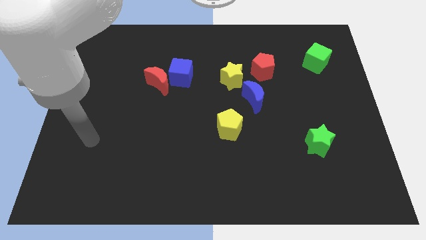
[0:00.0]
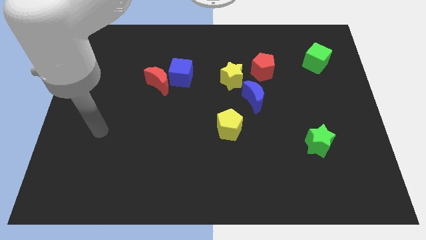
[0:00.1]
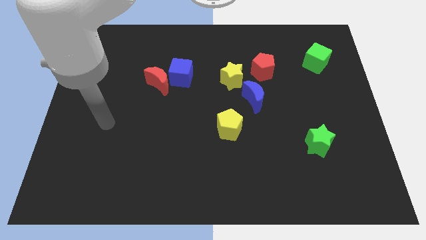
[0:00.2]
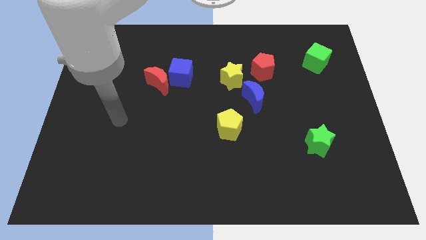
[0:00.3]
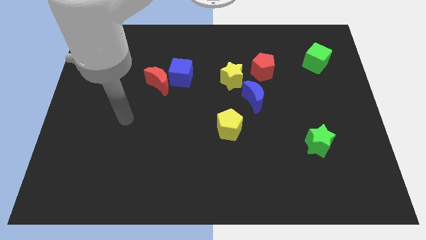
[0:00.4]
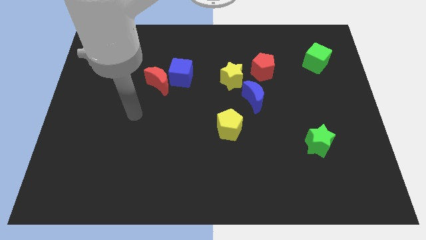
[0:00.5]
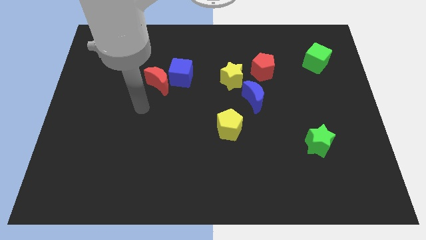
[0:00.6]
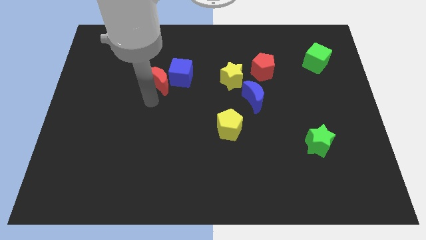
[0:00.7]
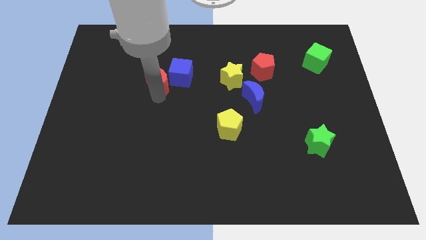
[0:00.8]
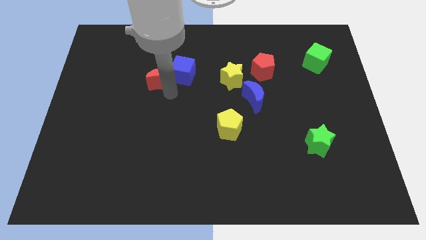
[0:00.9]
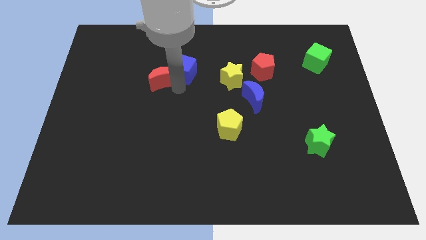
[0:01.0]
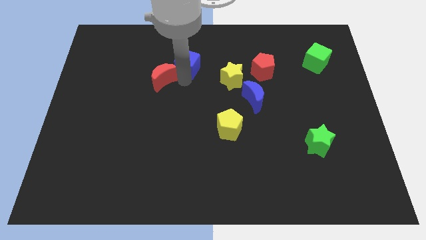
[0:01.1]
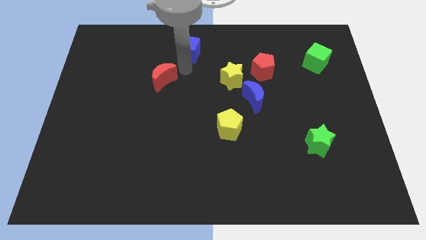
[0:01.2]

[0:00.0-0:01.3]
pull the red moon apart from the blue cube

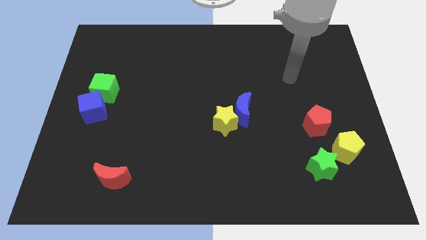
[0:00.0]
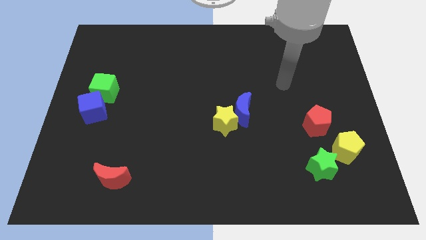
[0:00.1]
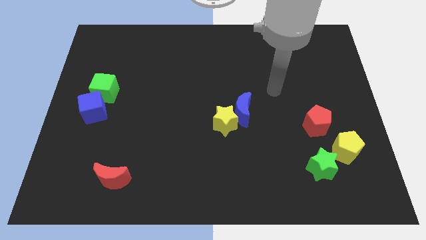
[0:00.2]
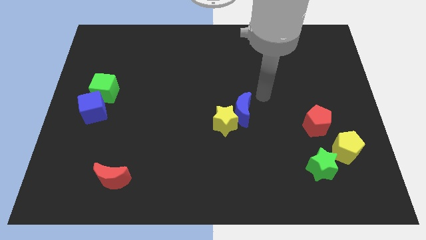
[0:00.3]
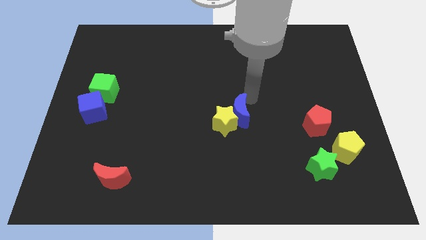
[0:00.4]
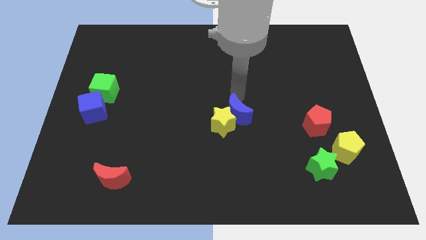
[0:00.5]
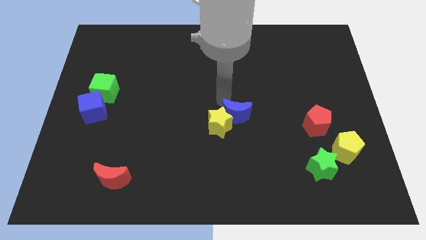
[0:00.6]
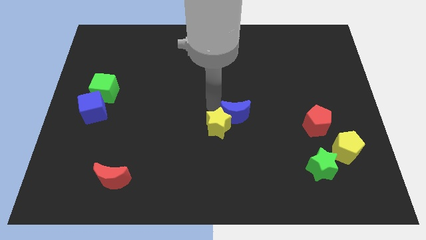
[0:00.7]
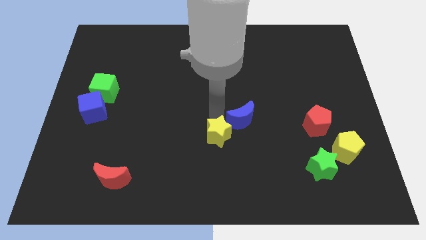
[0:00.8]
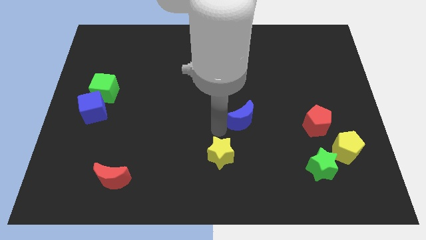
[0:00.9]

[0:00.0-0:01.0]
pull the blue moon apart from the yellow star

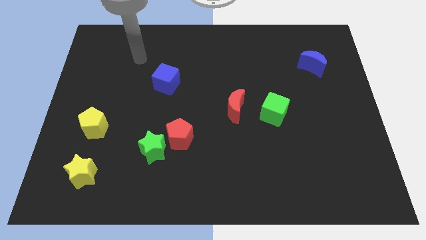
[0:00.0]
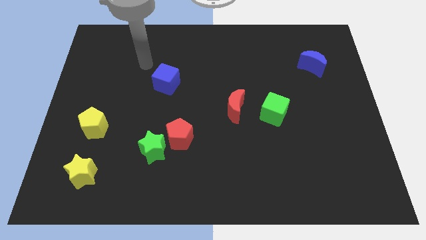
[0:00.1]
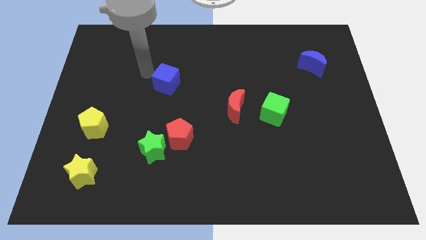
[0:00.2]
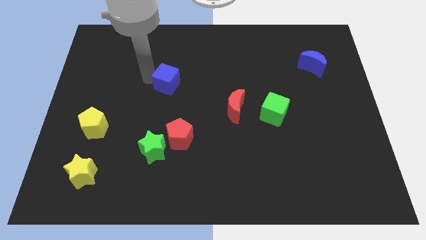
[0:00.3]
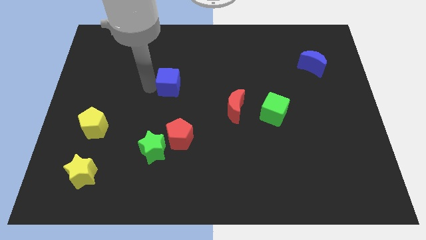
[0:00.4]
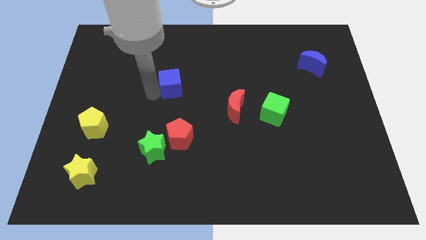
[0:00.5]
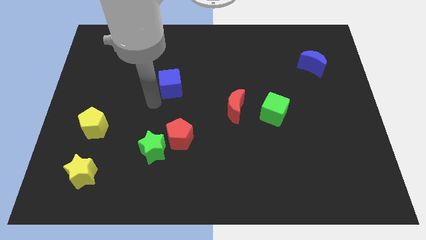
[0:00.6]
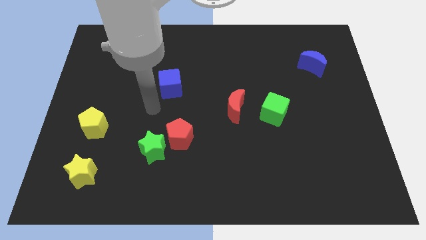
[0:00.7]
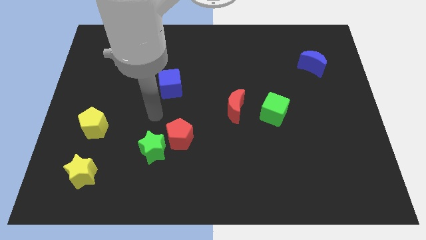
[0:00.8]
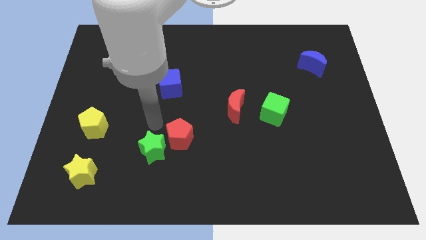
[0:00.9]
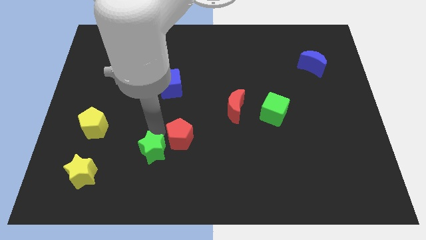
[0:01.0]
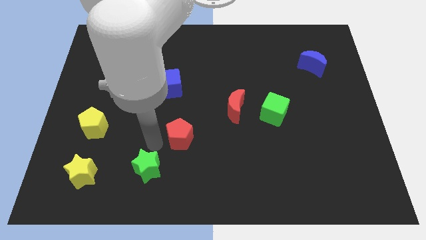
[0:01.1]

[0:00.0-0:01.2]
move the red pentagon away from the green star

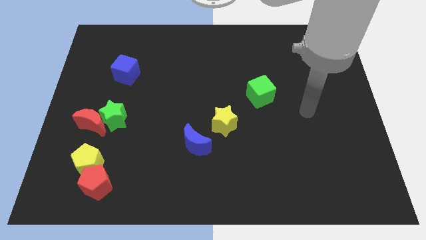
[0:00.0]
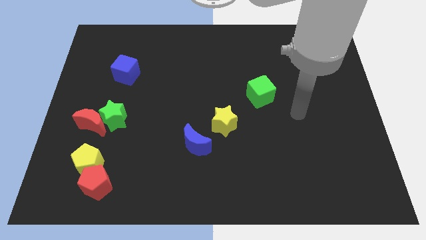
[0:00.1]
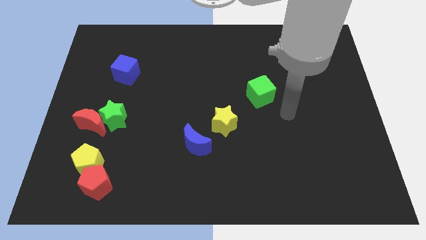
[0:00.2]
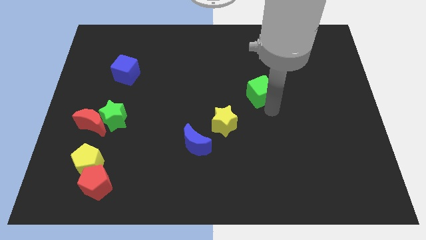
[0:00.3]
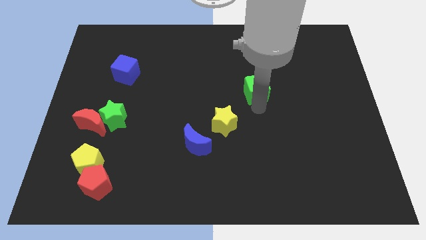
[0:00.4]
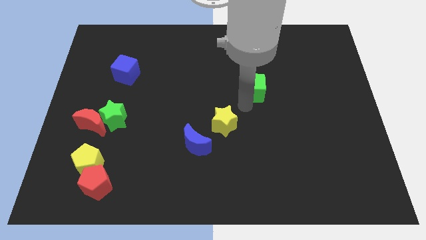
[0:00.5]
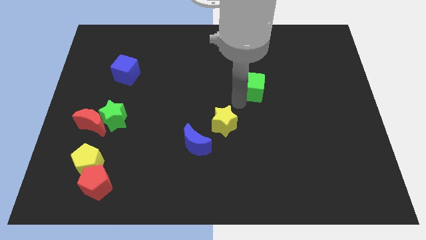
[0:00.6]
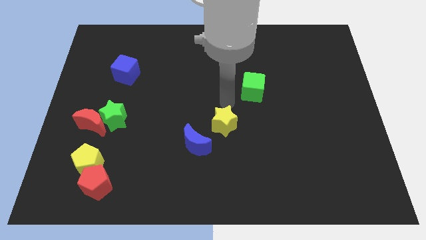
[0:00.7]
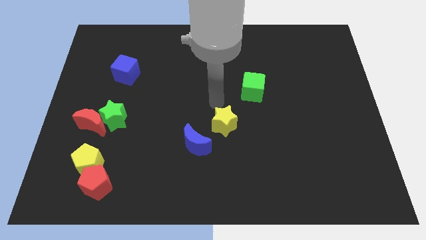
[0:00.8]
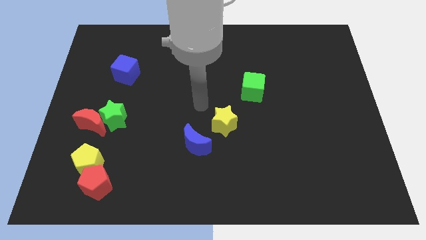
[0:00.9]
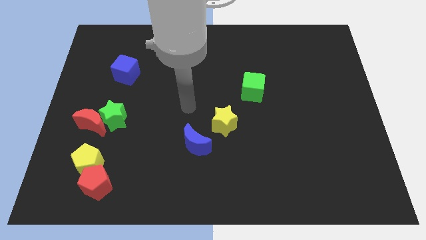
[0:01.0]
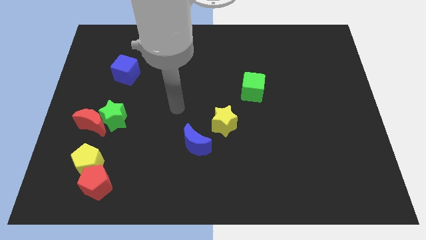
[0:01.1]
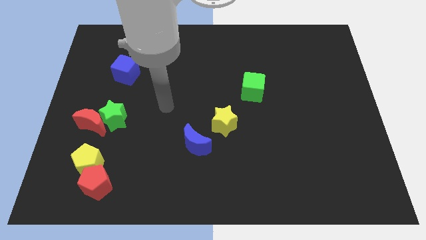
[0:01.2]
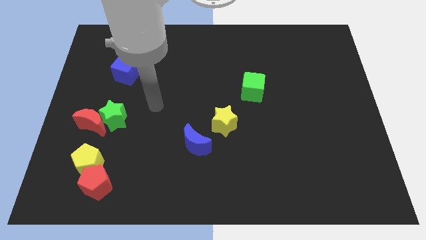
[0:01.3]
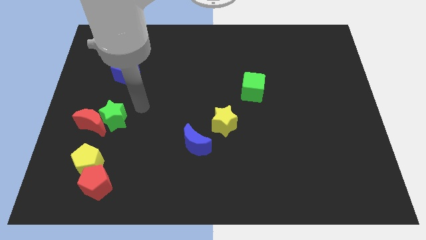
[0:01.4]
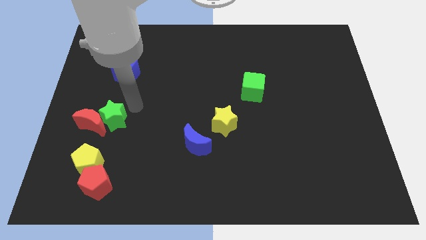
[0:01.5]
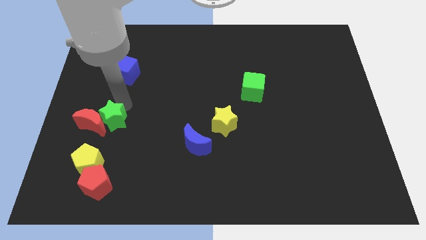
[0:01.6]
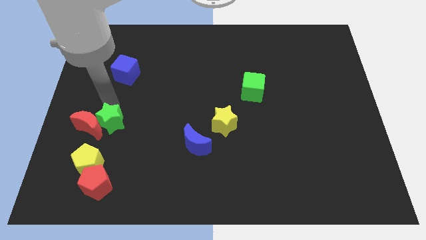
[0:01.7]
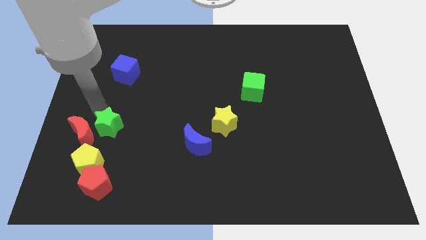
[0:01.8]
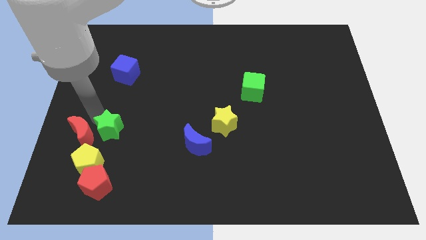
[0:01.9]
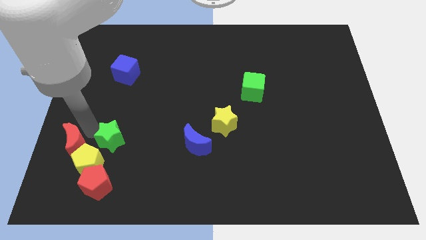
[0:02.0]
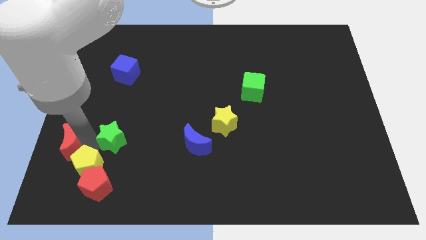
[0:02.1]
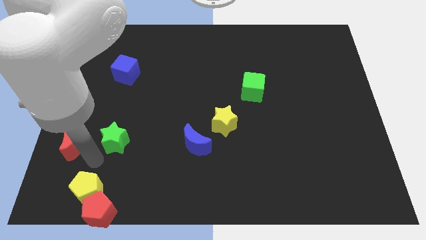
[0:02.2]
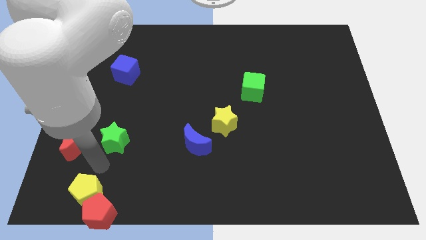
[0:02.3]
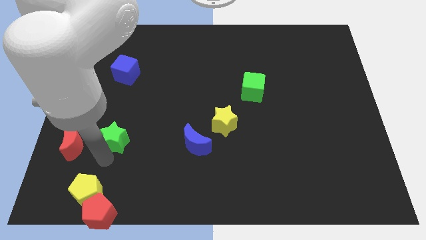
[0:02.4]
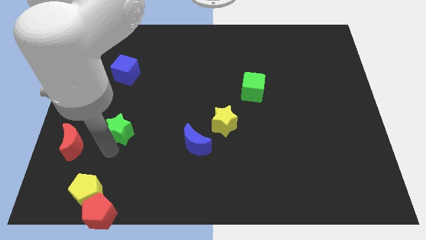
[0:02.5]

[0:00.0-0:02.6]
separate the green star from the red moon

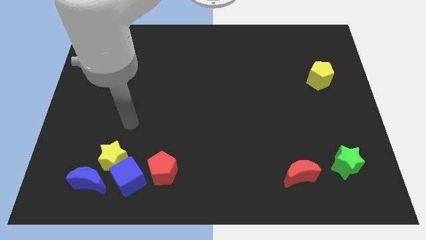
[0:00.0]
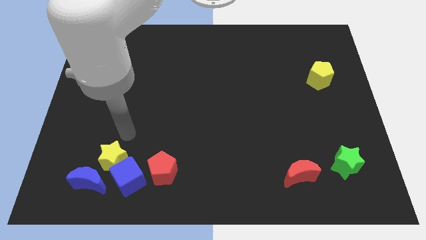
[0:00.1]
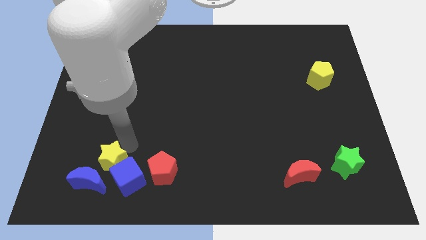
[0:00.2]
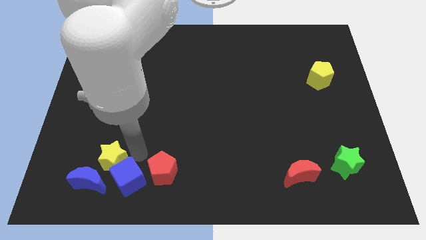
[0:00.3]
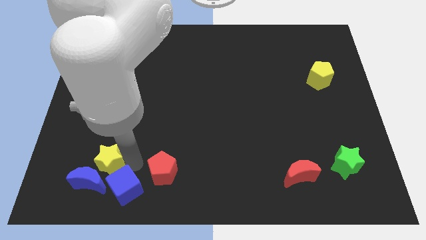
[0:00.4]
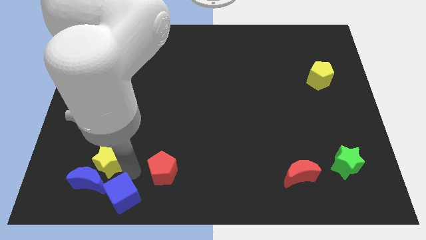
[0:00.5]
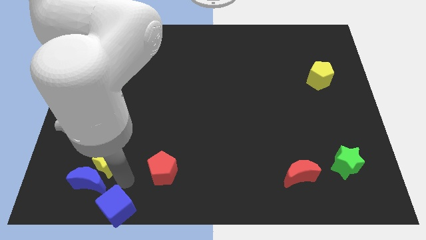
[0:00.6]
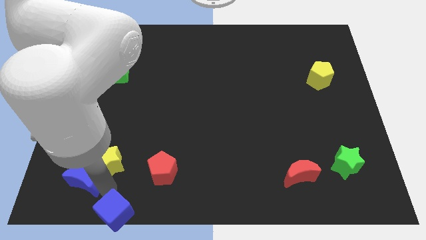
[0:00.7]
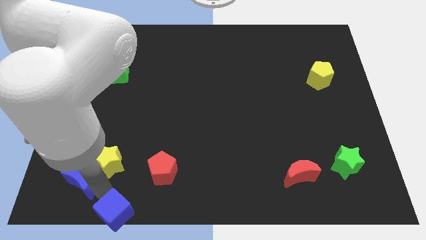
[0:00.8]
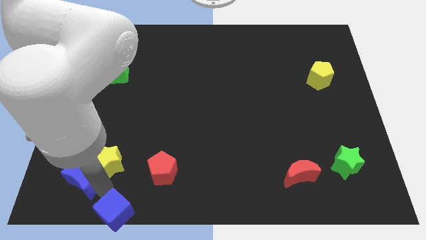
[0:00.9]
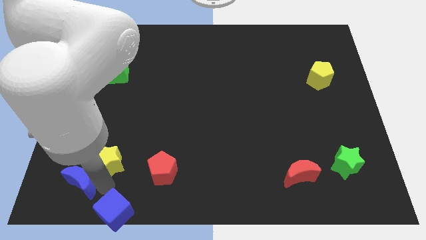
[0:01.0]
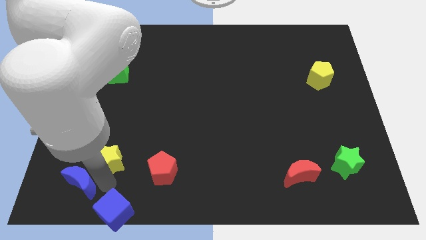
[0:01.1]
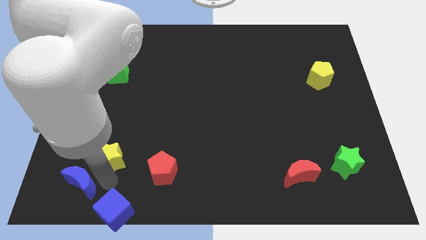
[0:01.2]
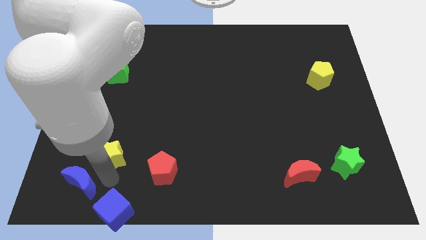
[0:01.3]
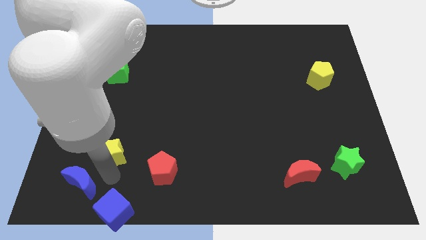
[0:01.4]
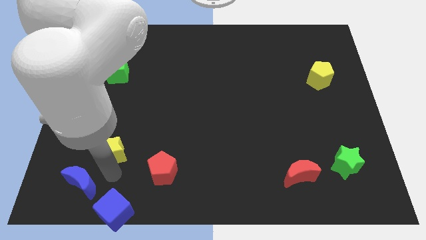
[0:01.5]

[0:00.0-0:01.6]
pull the yellow star apart from the blue cube and blue moon

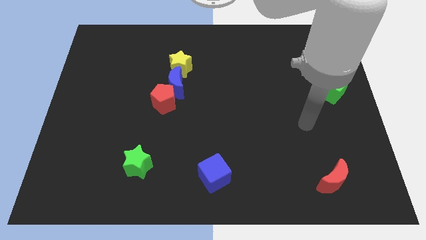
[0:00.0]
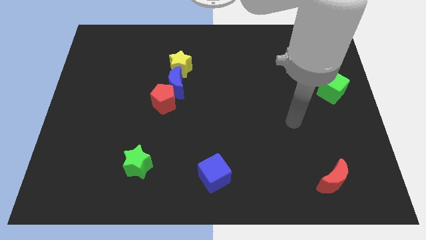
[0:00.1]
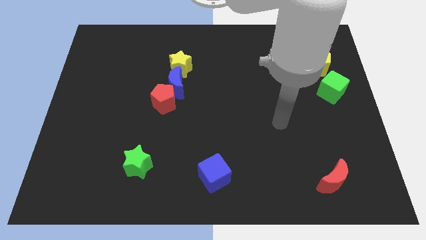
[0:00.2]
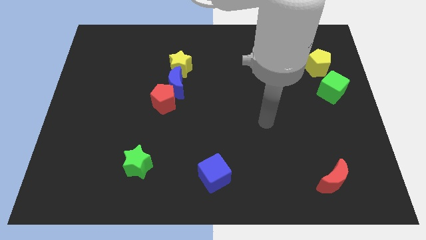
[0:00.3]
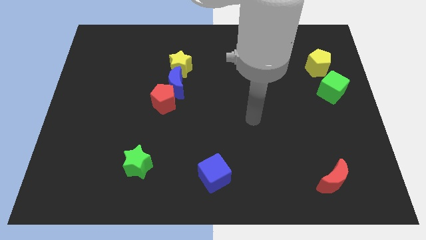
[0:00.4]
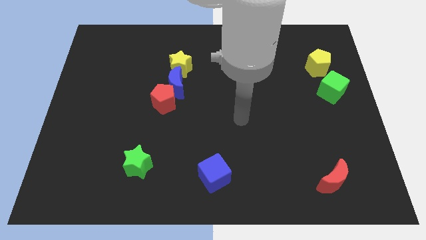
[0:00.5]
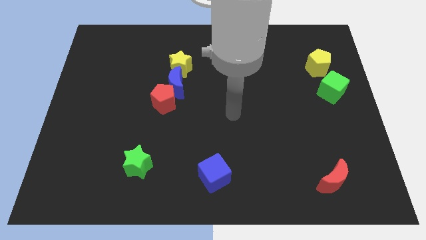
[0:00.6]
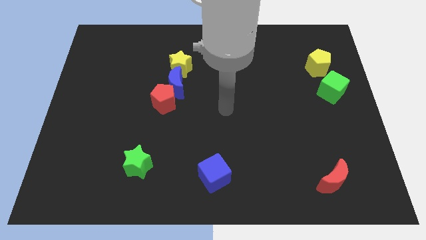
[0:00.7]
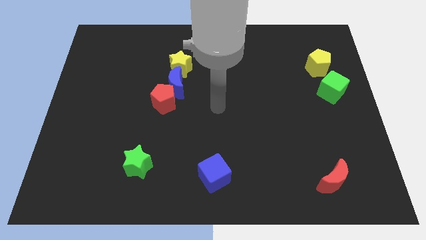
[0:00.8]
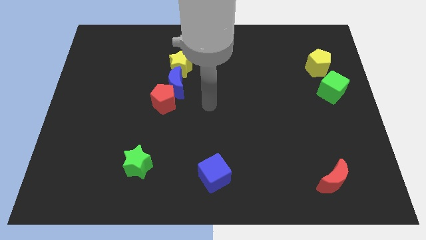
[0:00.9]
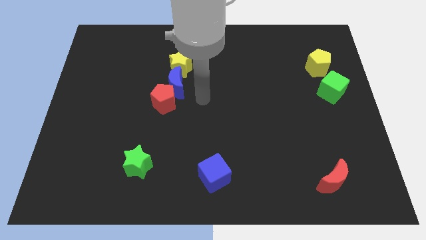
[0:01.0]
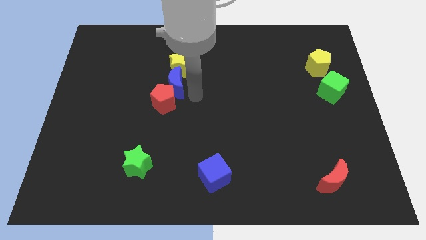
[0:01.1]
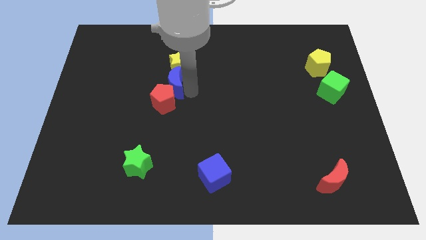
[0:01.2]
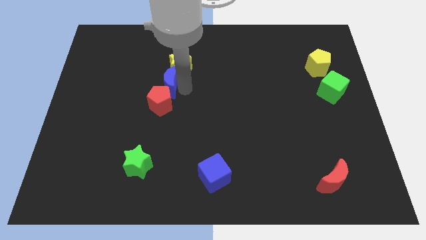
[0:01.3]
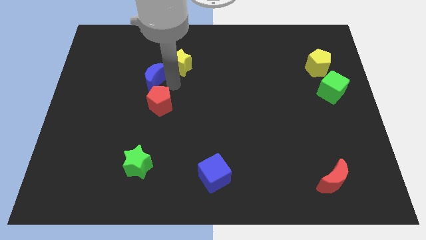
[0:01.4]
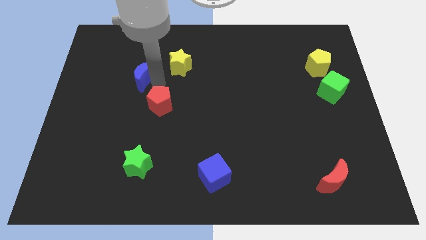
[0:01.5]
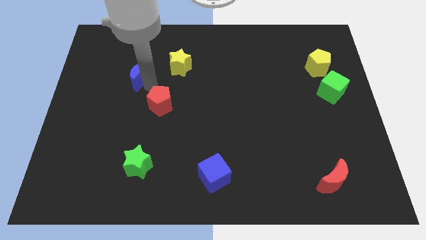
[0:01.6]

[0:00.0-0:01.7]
separate the red pentagon from the blue moon
